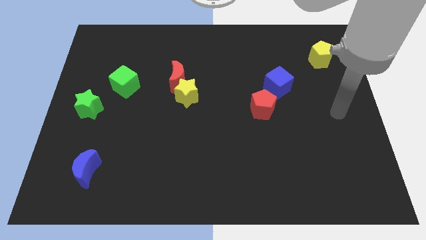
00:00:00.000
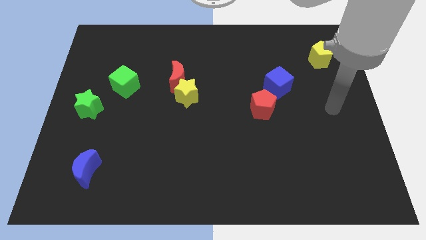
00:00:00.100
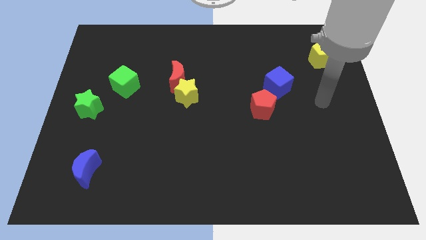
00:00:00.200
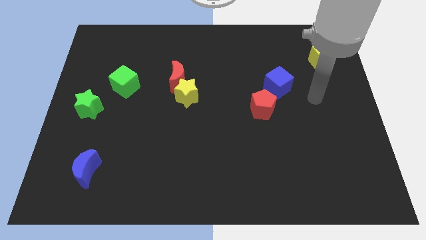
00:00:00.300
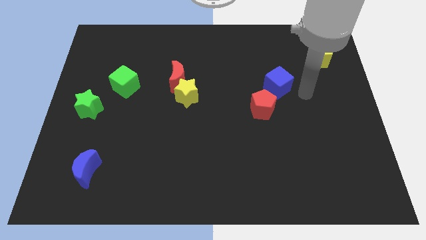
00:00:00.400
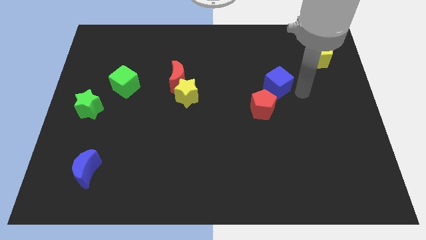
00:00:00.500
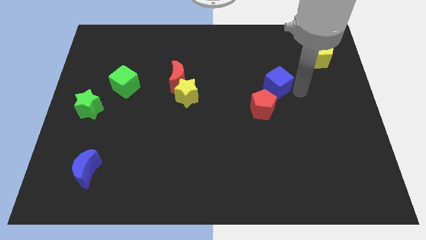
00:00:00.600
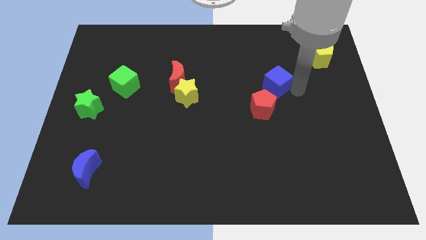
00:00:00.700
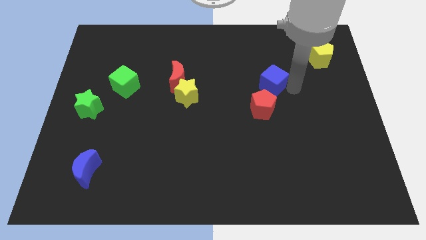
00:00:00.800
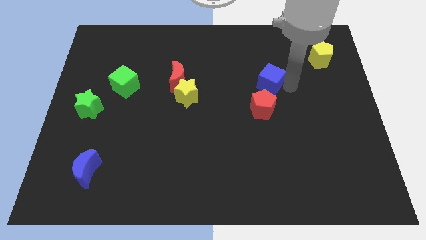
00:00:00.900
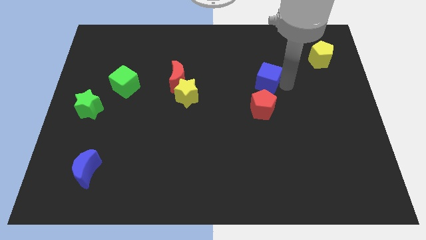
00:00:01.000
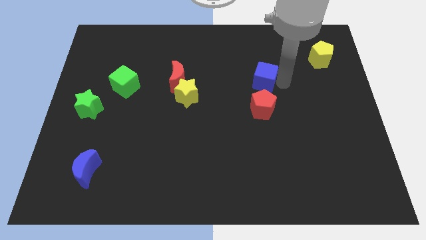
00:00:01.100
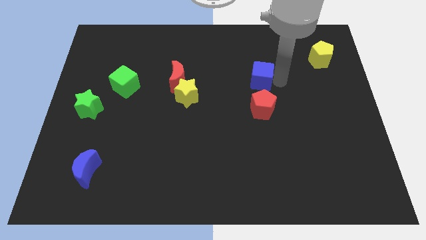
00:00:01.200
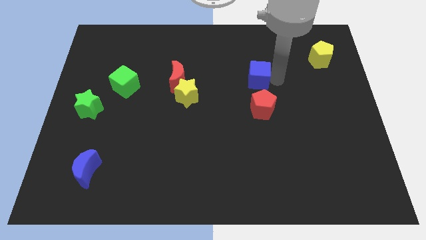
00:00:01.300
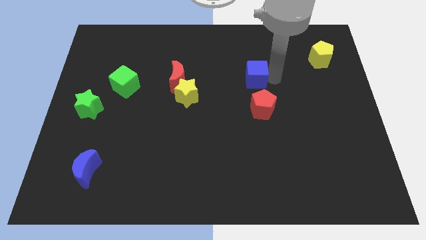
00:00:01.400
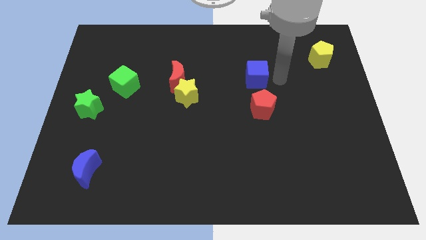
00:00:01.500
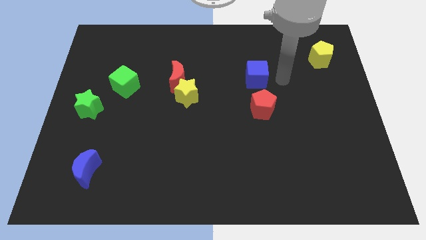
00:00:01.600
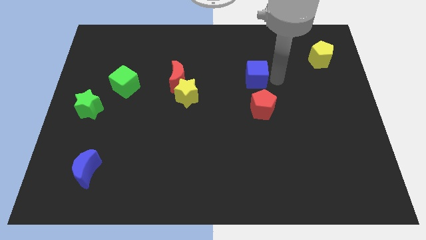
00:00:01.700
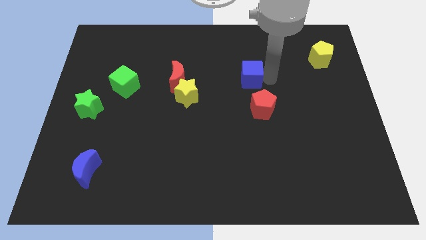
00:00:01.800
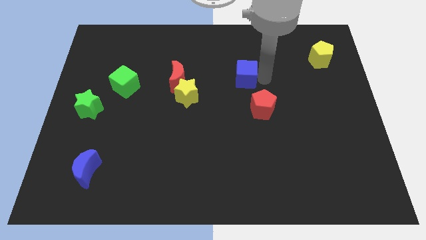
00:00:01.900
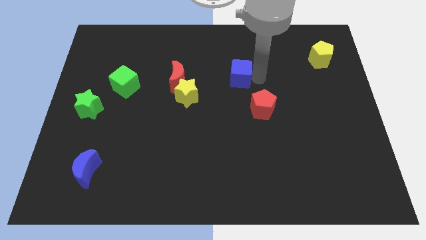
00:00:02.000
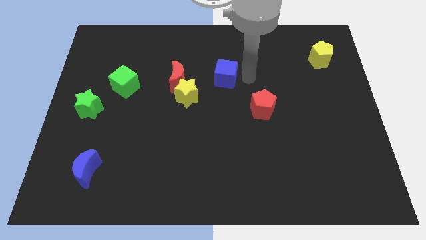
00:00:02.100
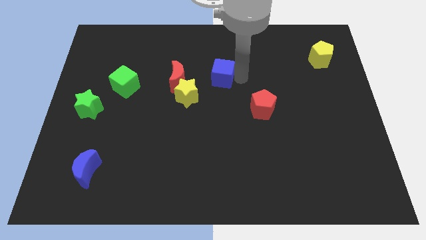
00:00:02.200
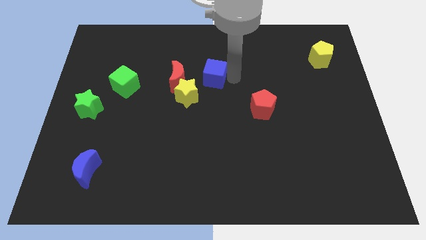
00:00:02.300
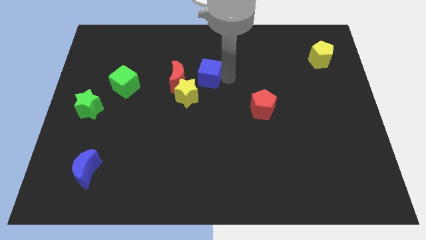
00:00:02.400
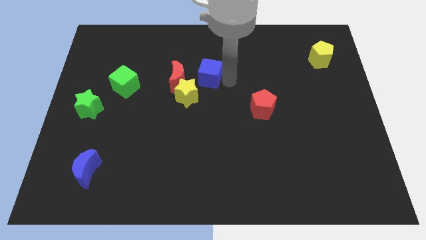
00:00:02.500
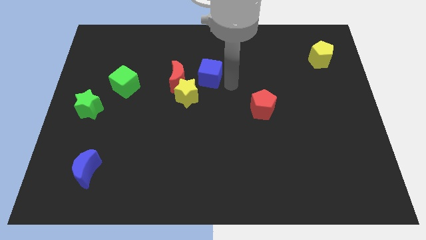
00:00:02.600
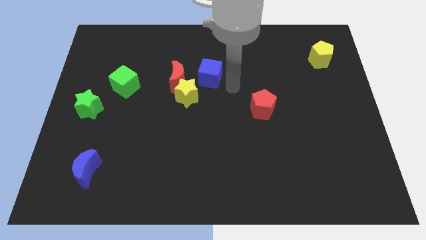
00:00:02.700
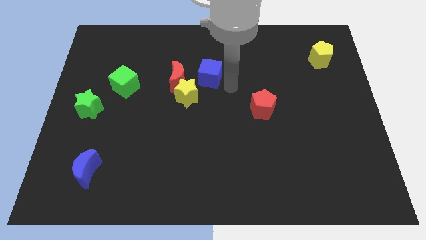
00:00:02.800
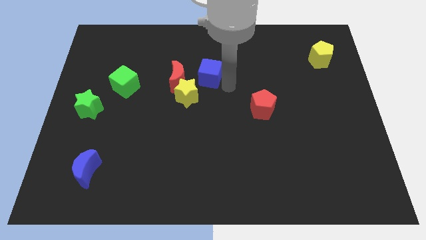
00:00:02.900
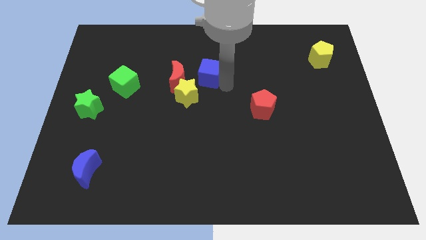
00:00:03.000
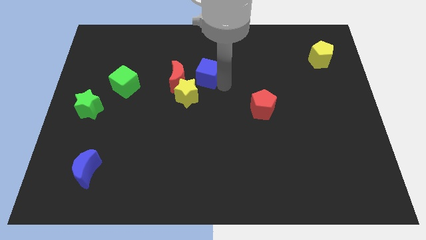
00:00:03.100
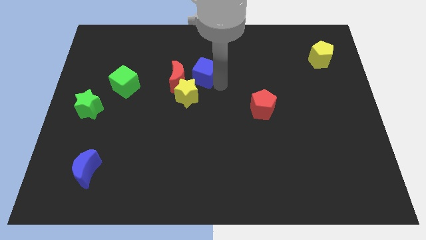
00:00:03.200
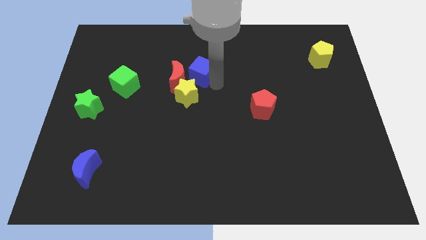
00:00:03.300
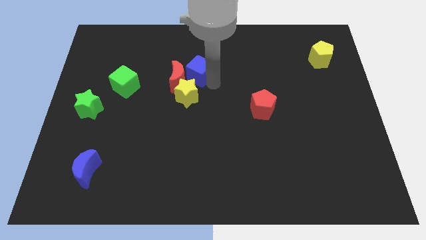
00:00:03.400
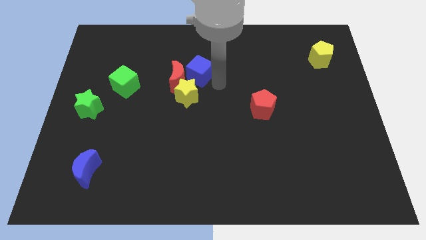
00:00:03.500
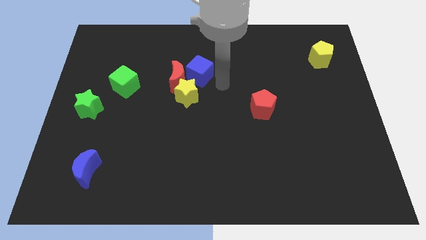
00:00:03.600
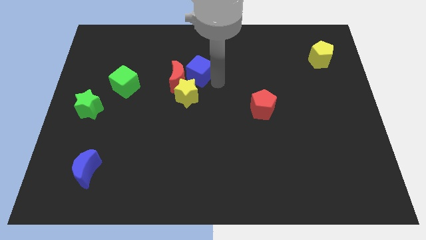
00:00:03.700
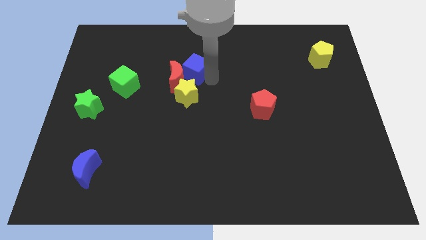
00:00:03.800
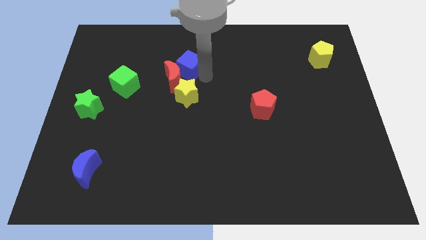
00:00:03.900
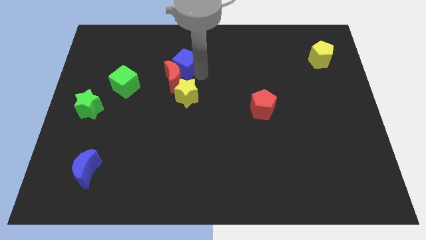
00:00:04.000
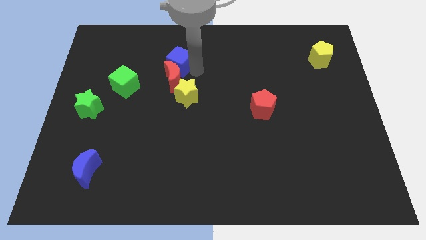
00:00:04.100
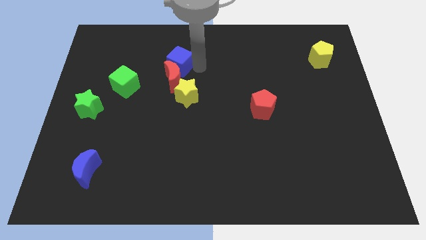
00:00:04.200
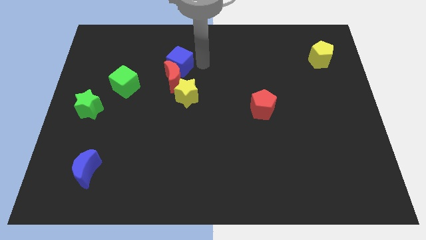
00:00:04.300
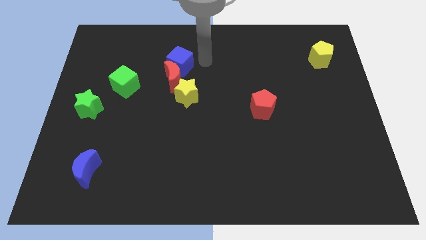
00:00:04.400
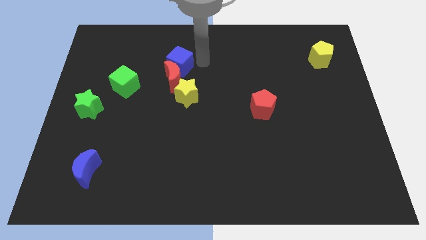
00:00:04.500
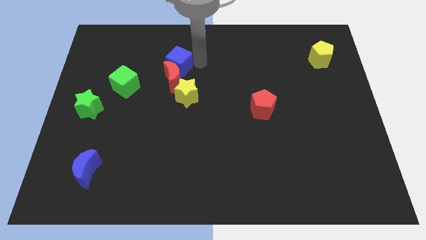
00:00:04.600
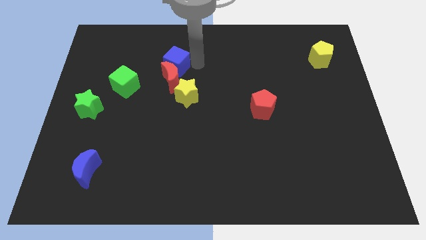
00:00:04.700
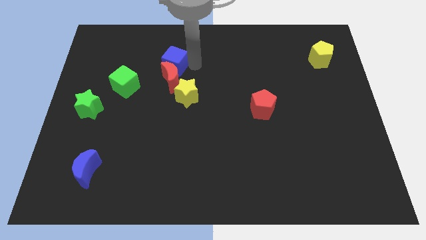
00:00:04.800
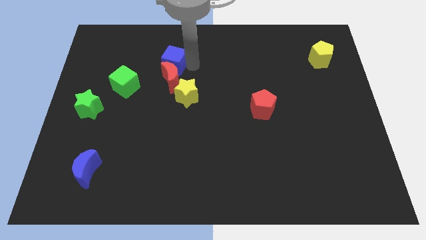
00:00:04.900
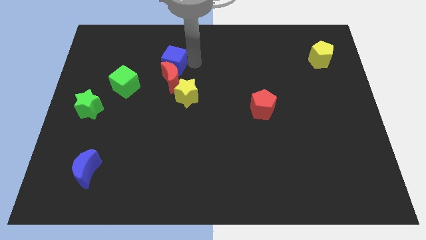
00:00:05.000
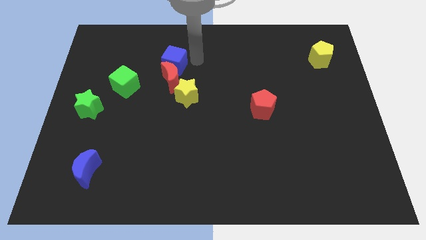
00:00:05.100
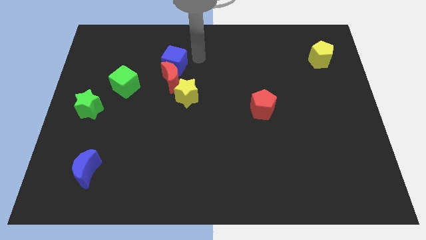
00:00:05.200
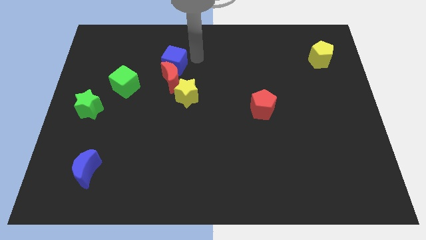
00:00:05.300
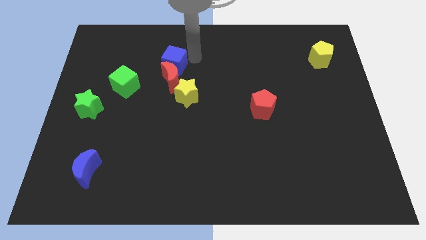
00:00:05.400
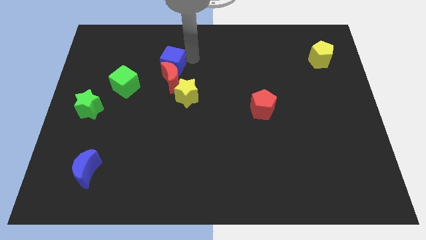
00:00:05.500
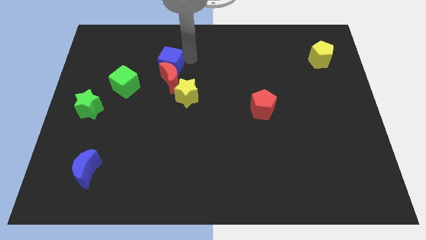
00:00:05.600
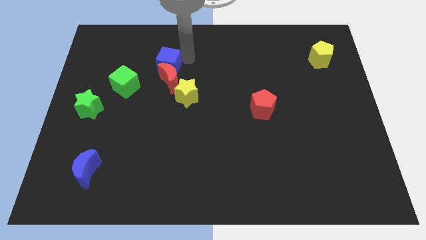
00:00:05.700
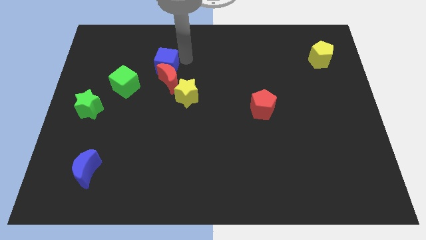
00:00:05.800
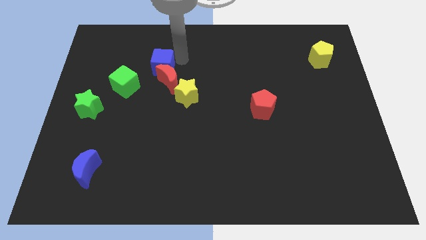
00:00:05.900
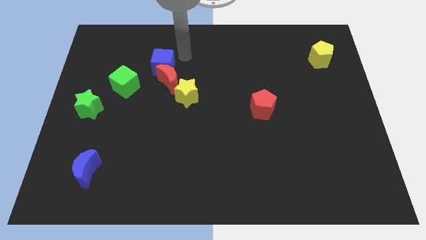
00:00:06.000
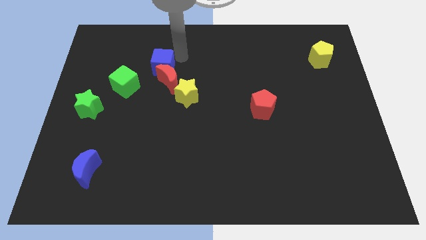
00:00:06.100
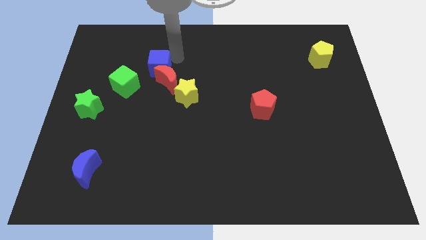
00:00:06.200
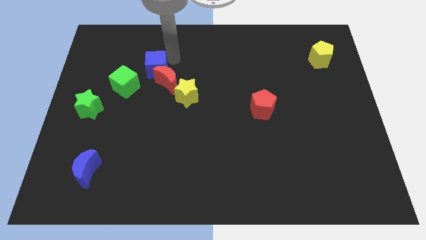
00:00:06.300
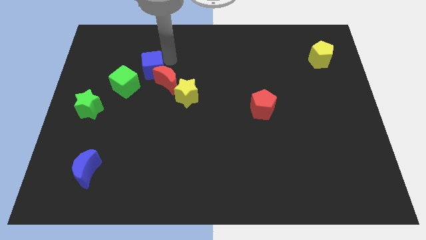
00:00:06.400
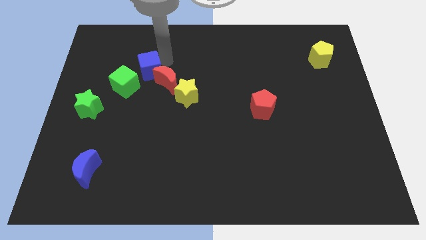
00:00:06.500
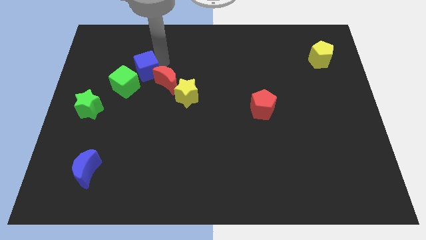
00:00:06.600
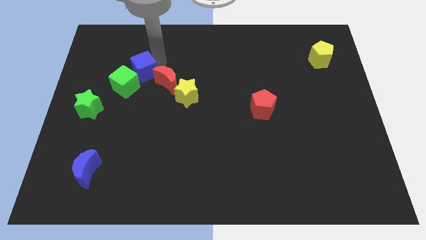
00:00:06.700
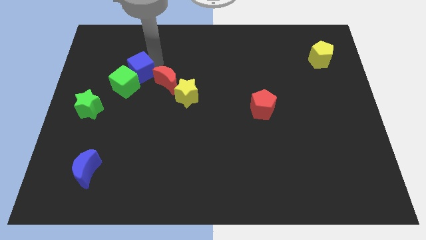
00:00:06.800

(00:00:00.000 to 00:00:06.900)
slide the blue cube towards the green cube

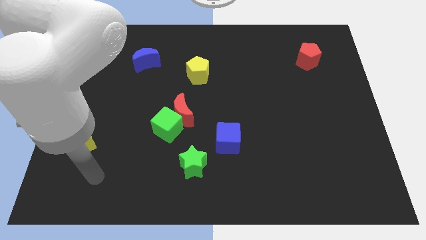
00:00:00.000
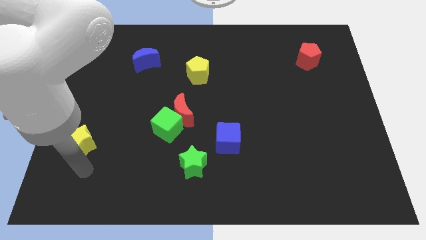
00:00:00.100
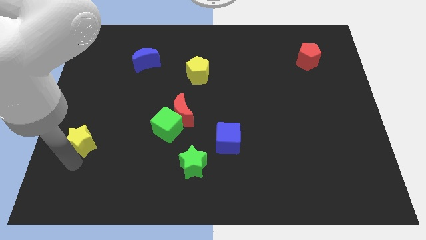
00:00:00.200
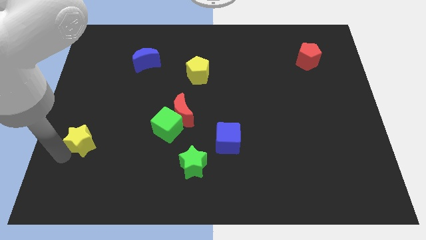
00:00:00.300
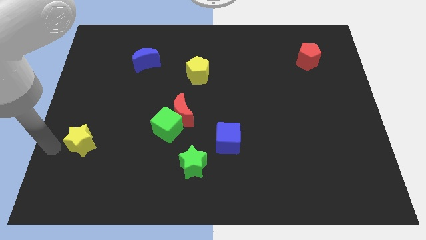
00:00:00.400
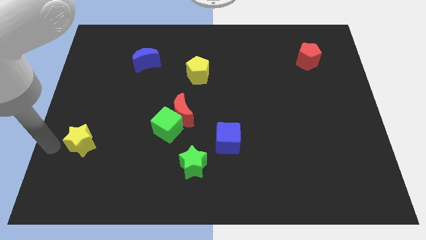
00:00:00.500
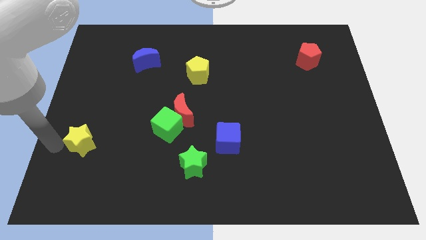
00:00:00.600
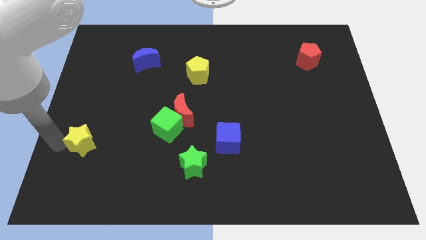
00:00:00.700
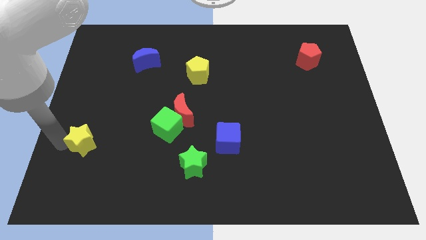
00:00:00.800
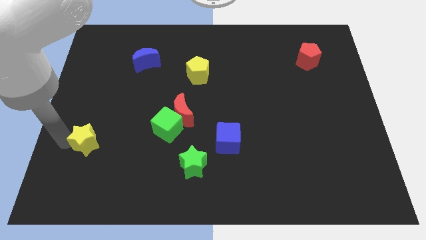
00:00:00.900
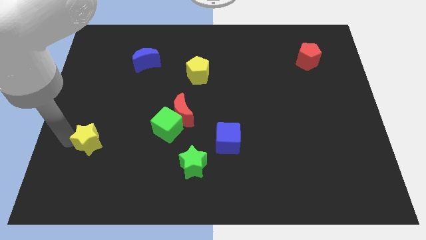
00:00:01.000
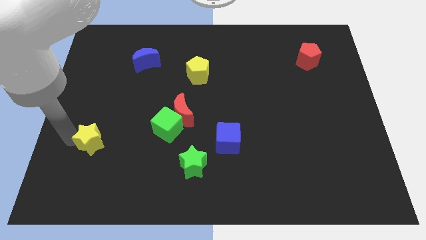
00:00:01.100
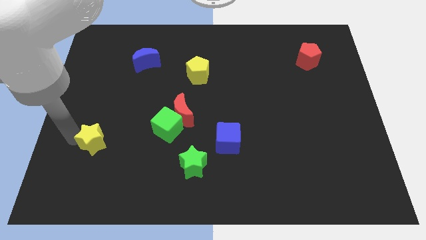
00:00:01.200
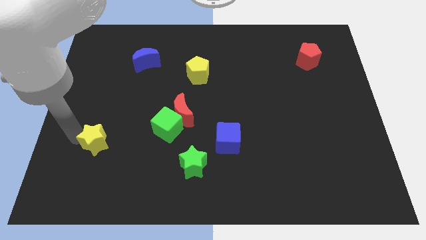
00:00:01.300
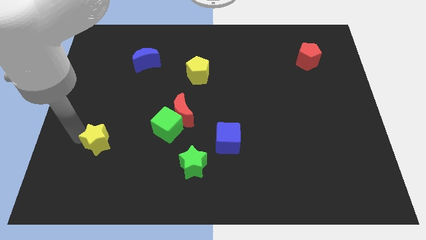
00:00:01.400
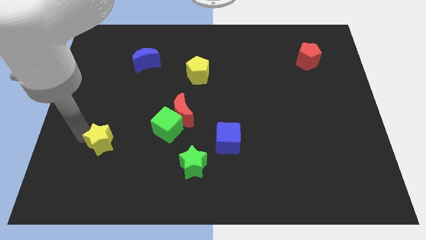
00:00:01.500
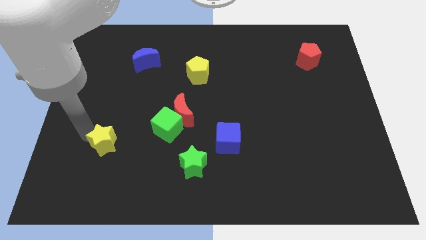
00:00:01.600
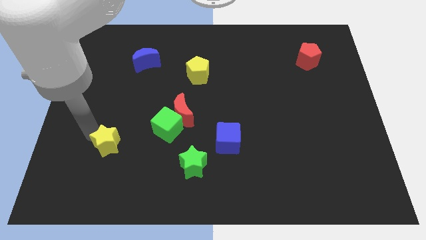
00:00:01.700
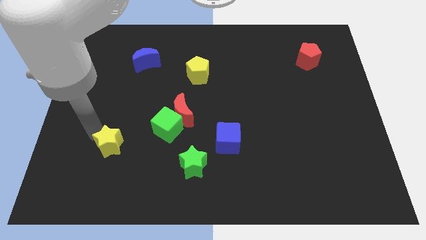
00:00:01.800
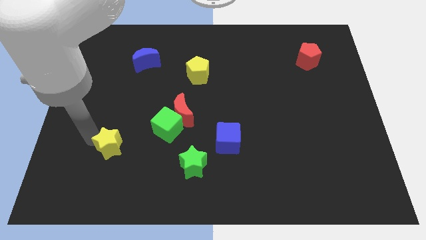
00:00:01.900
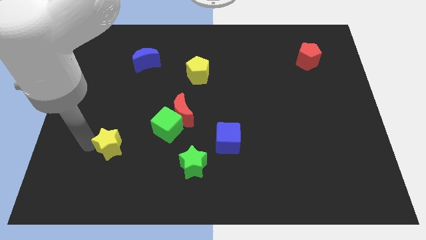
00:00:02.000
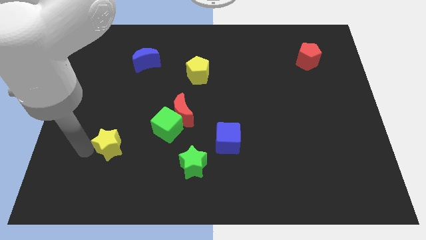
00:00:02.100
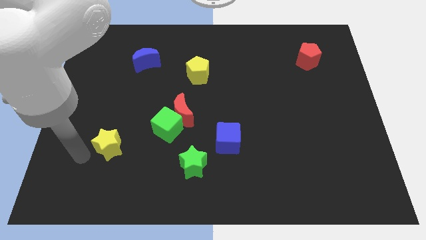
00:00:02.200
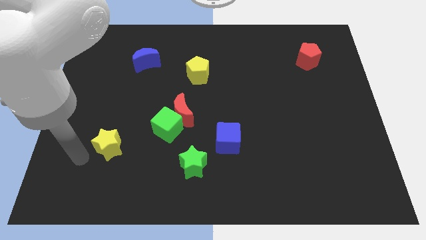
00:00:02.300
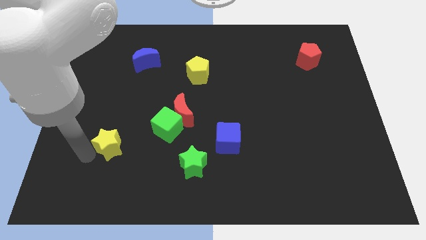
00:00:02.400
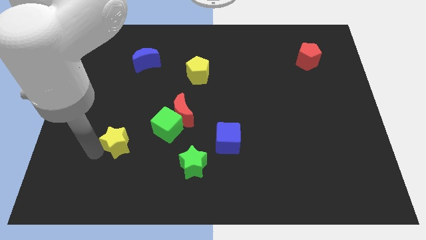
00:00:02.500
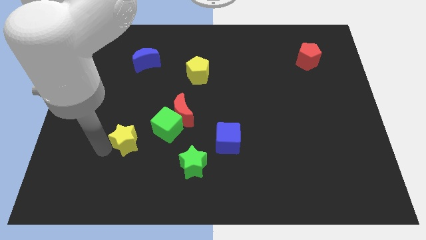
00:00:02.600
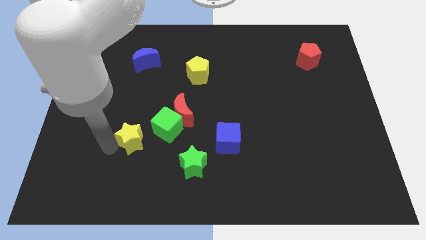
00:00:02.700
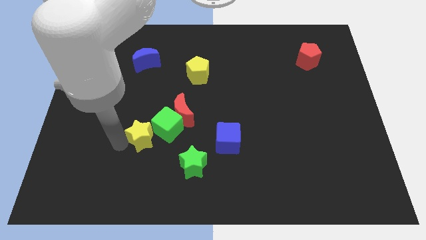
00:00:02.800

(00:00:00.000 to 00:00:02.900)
push the yellow star next to the green cube
